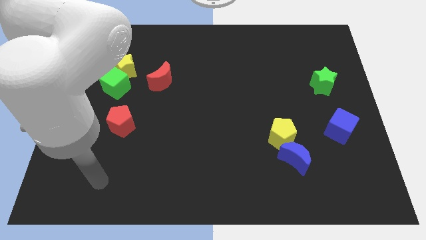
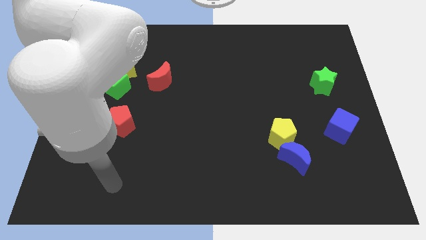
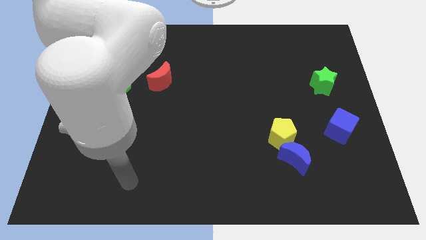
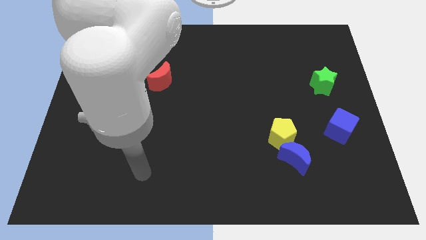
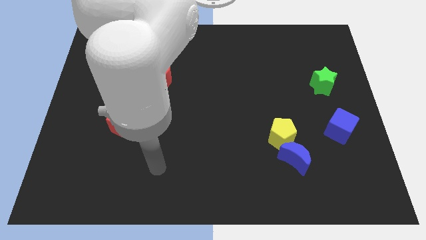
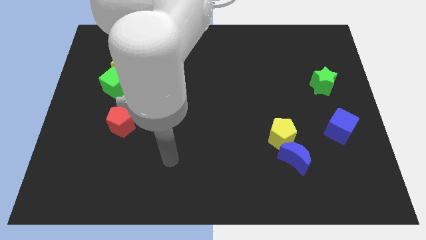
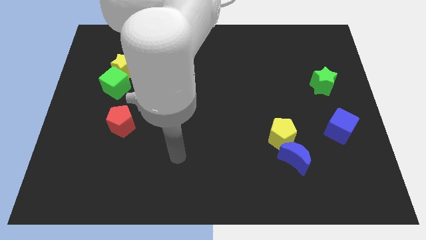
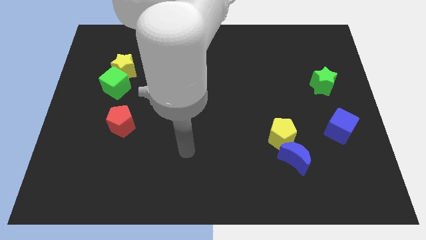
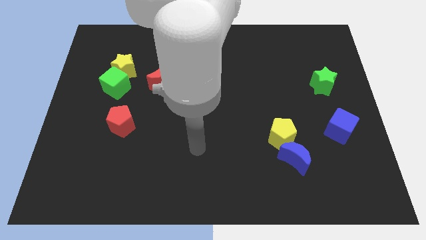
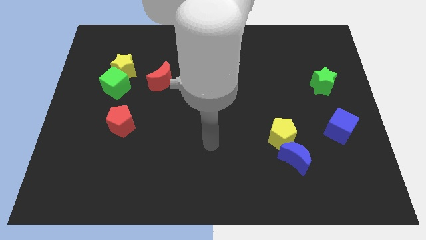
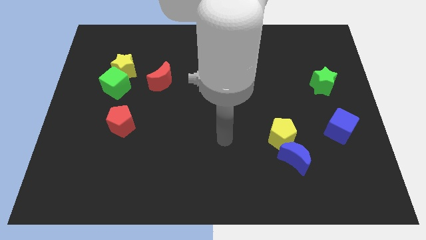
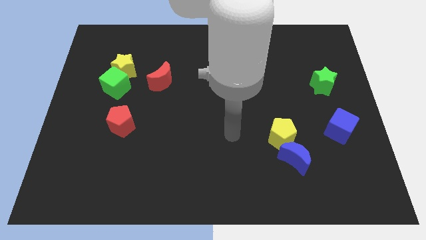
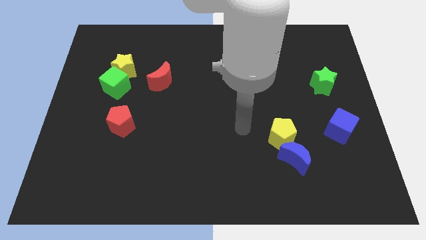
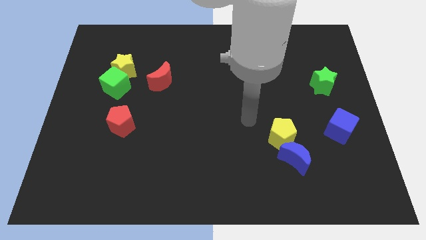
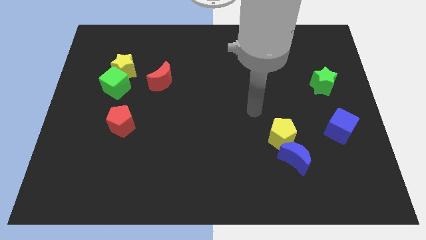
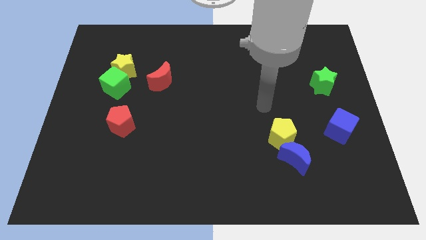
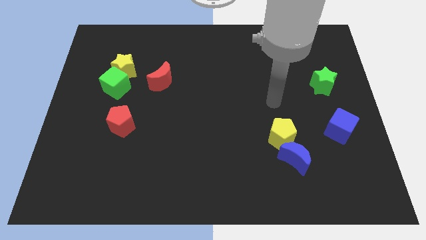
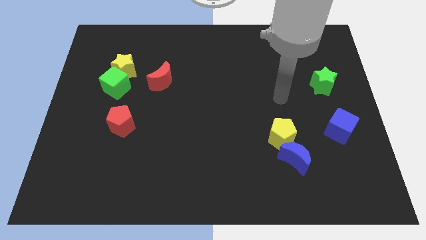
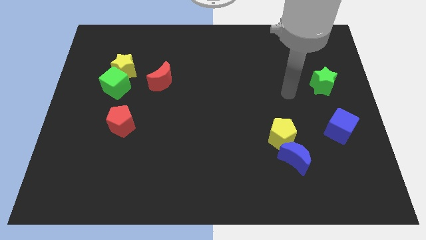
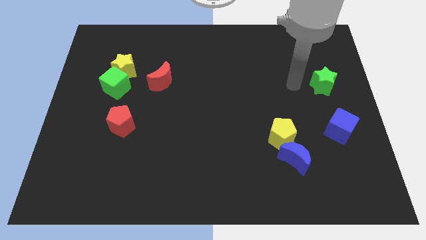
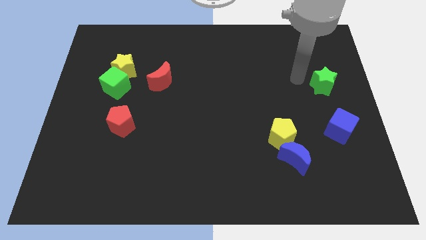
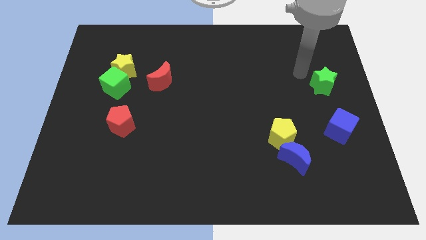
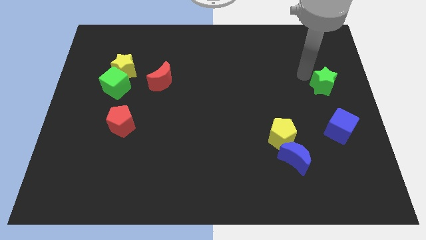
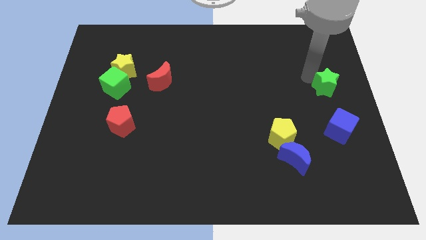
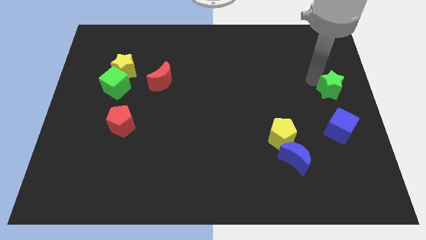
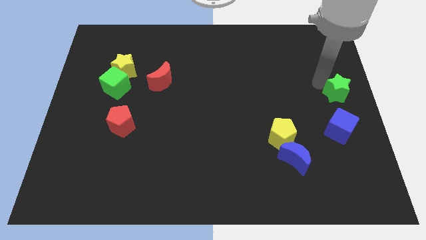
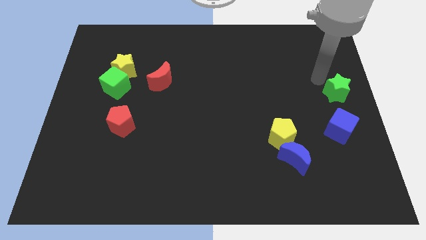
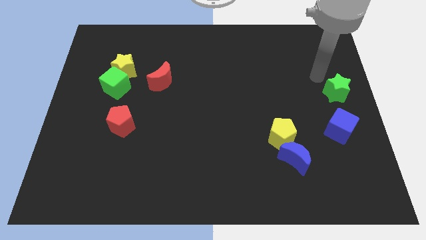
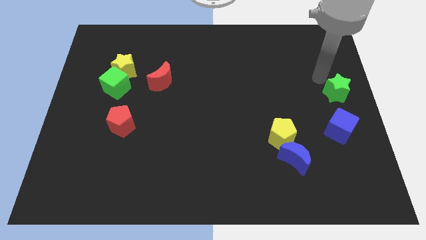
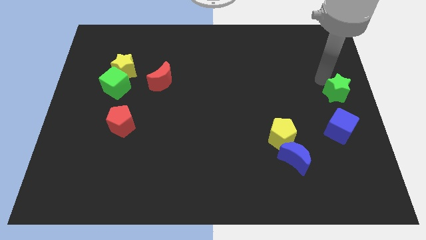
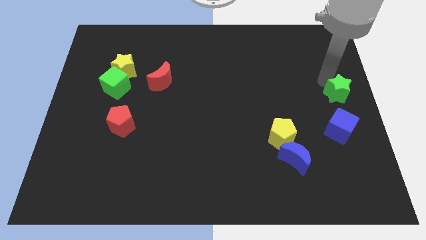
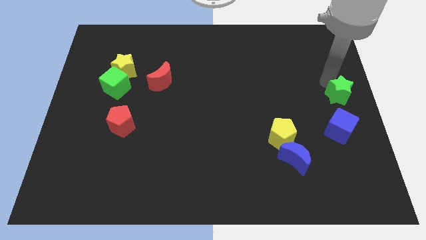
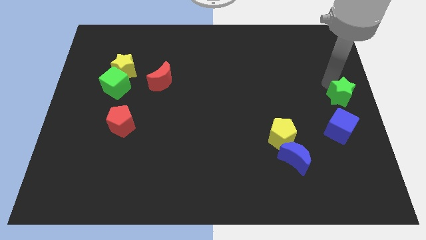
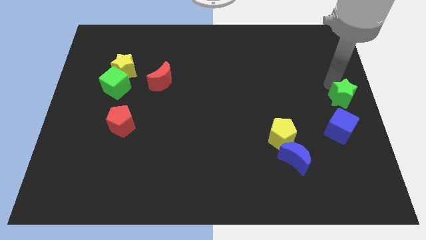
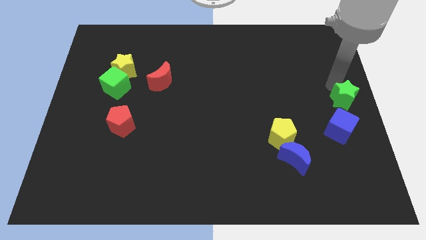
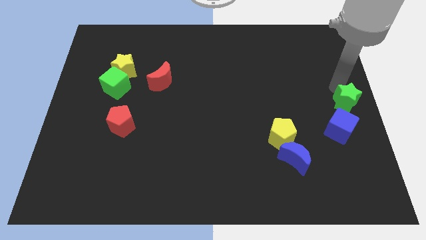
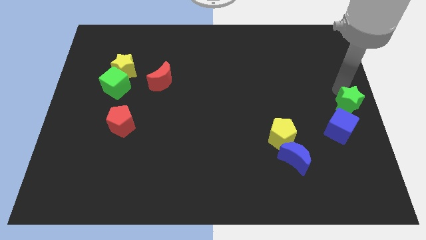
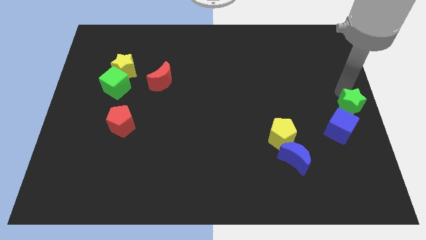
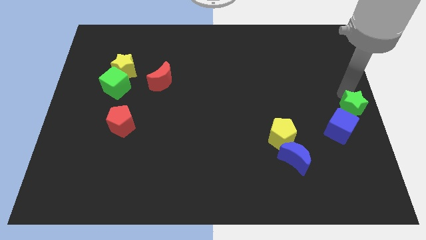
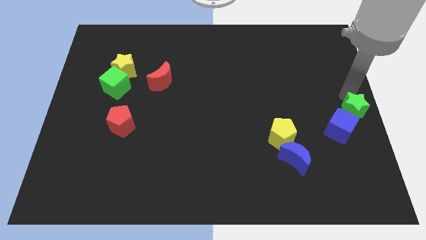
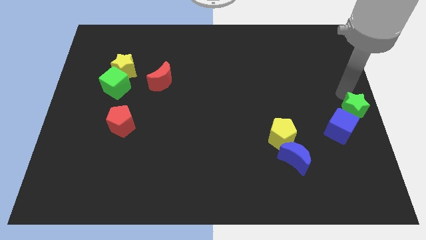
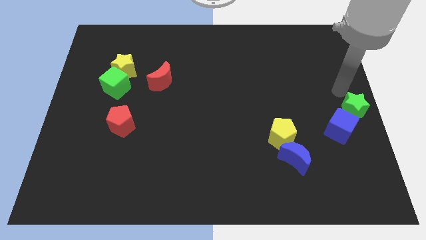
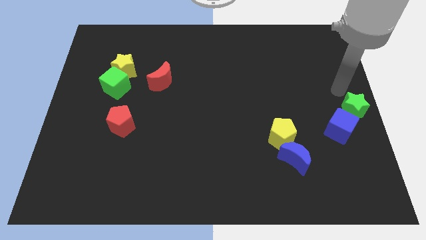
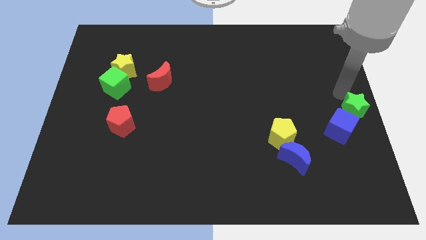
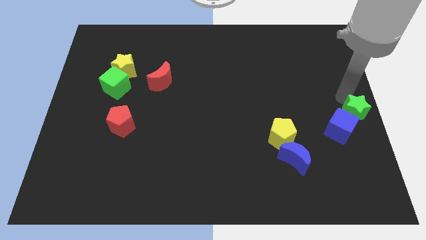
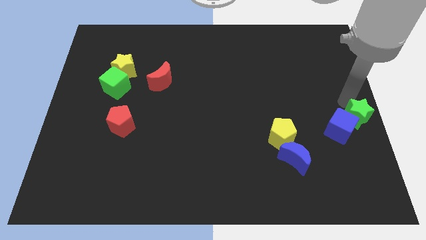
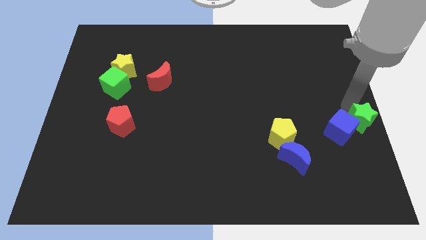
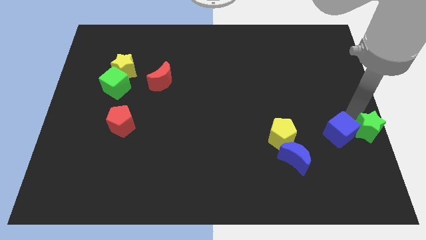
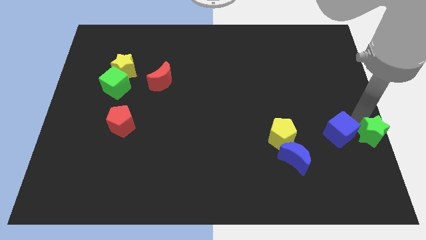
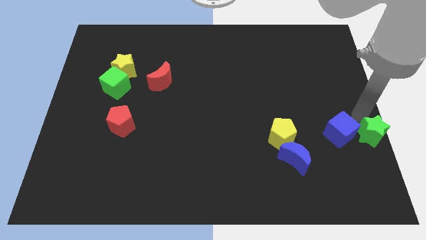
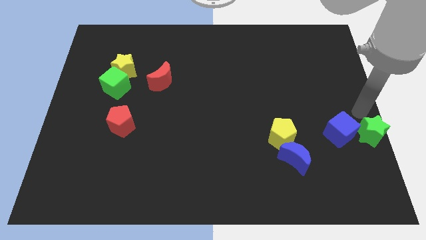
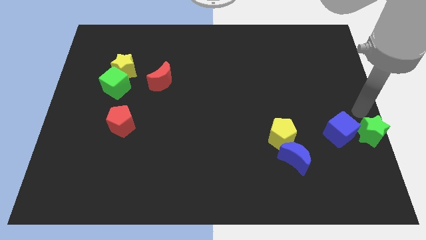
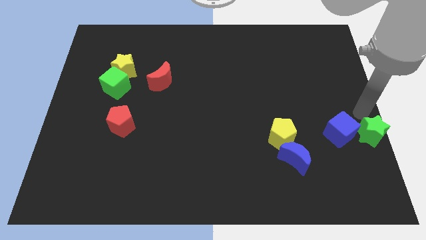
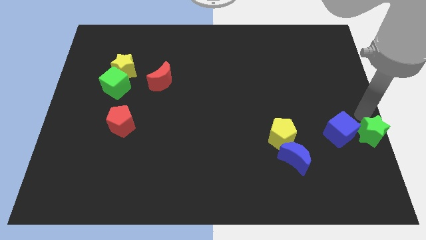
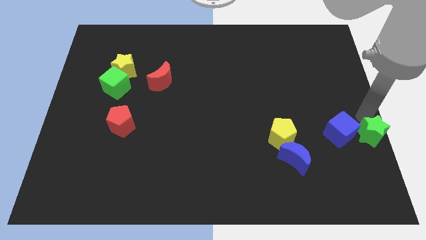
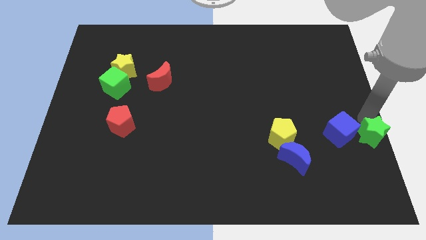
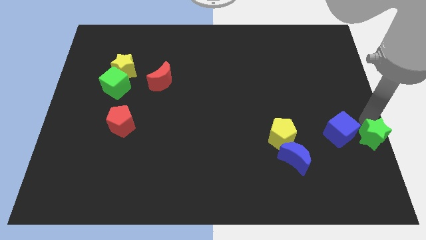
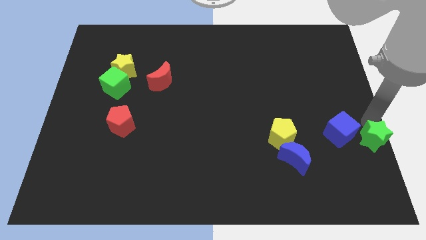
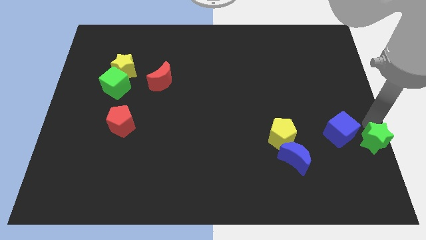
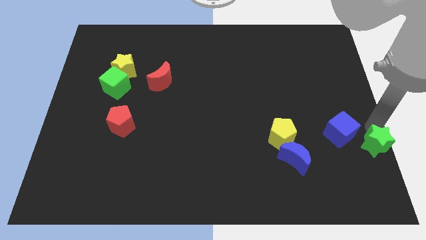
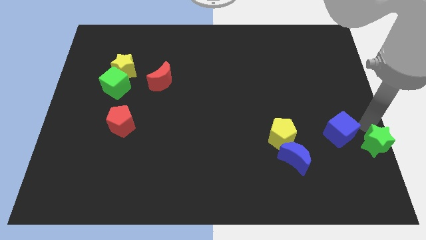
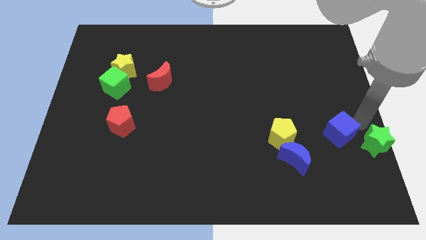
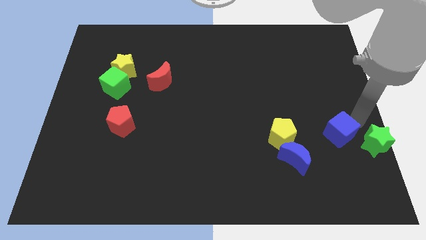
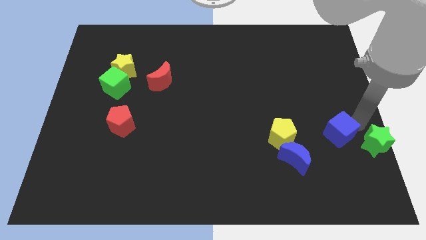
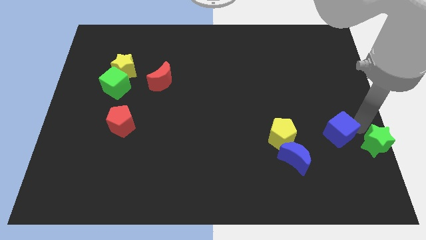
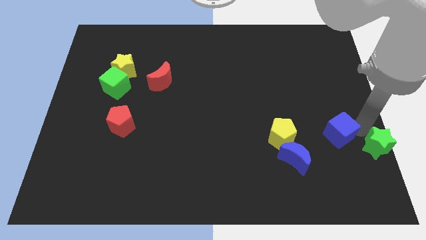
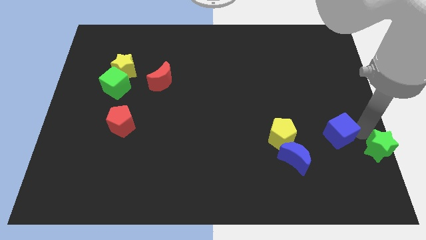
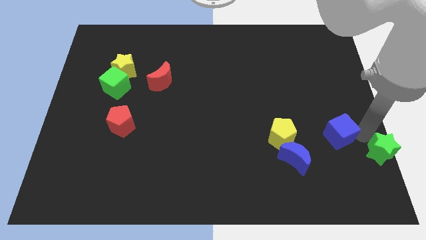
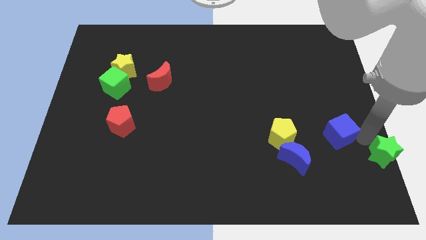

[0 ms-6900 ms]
put the green star to the lower right corner

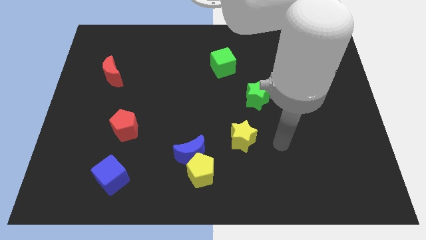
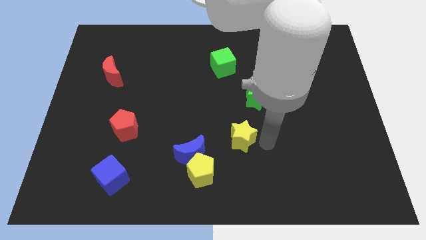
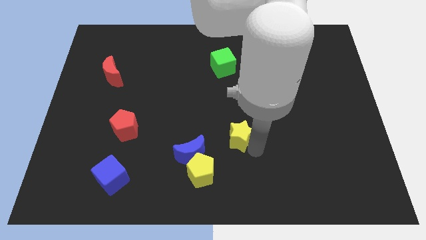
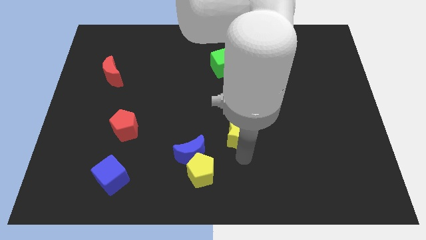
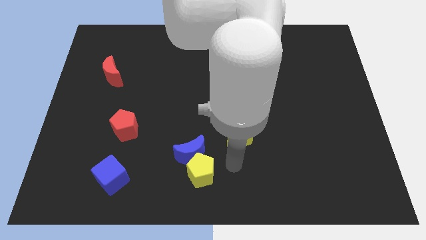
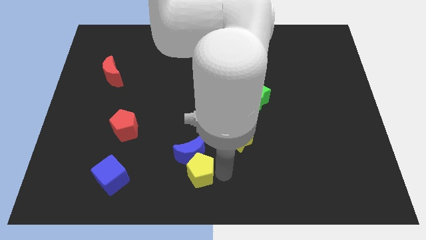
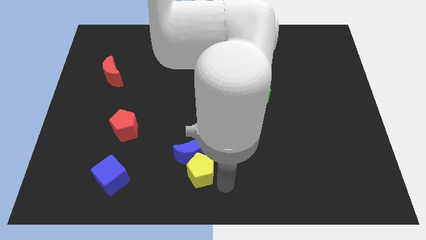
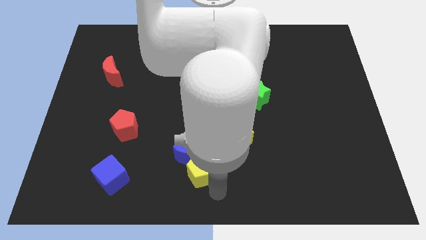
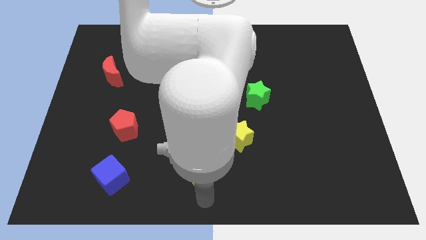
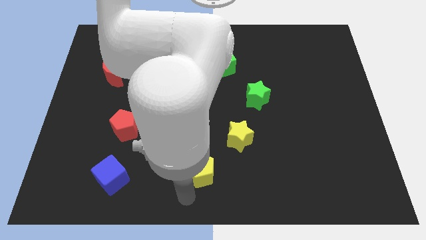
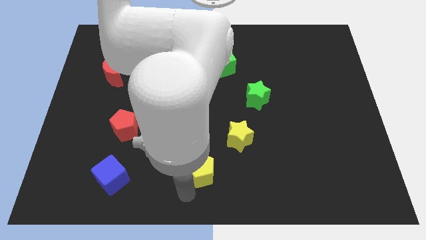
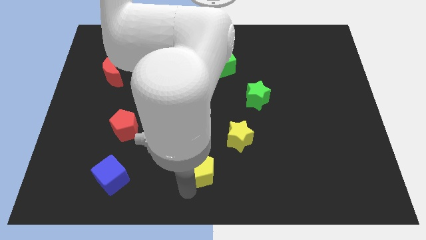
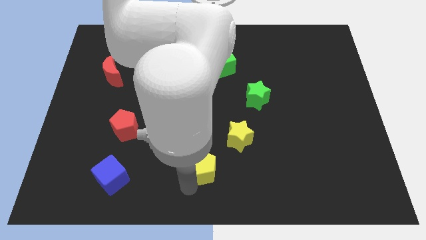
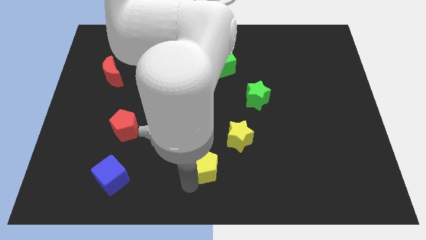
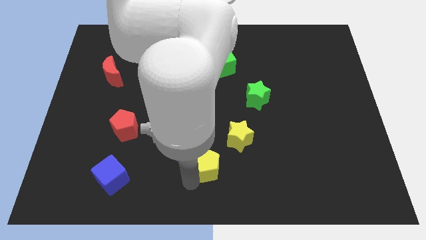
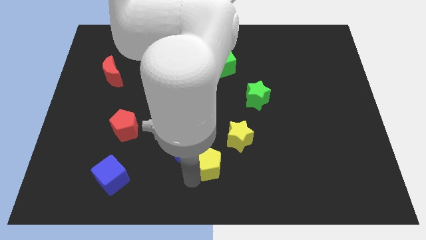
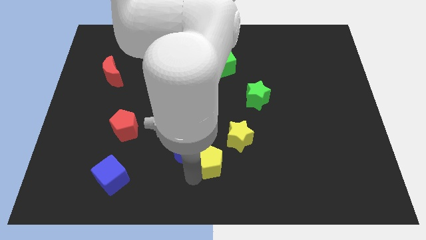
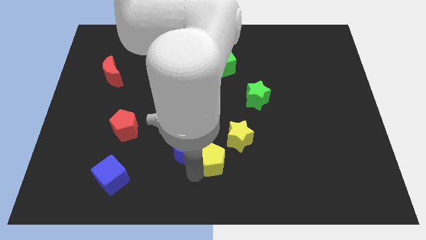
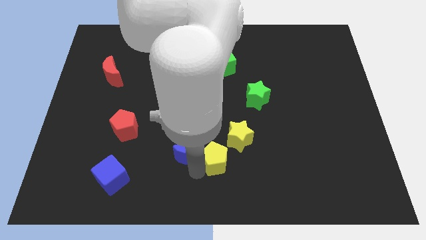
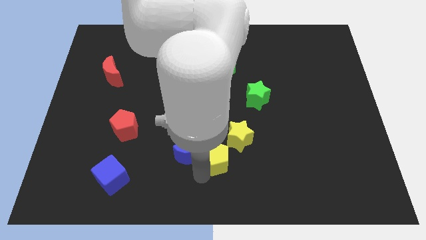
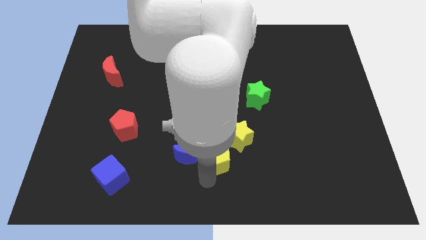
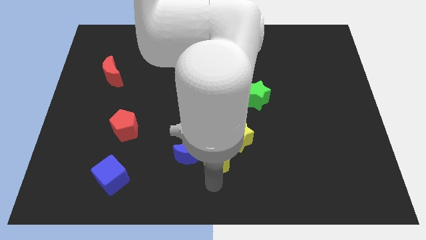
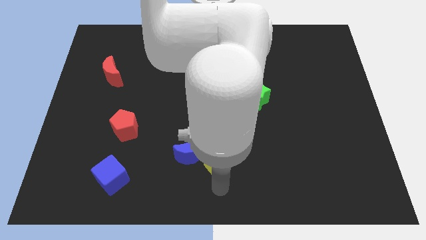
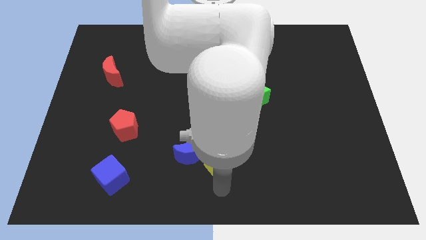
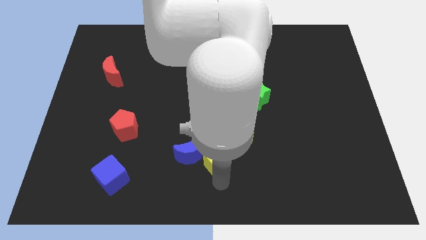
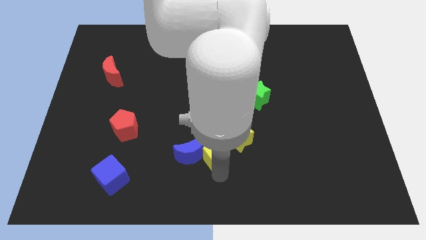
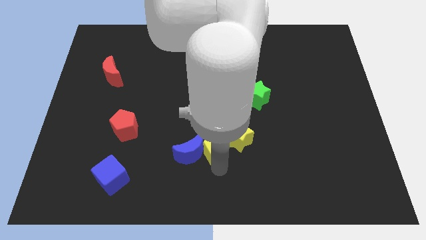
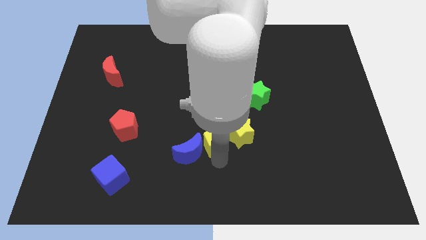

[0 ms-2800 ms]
push the yellow pentagon to the middle
